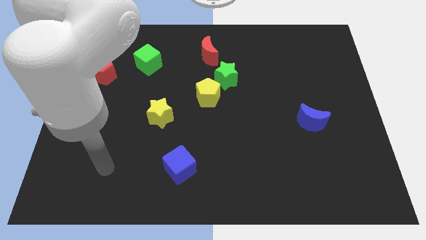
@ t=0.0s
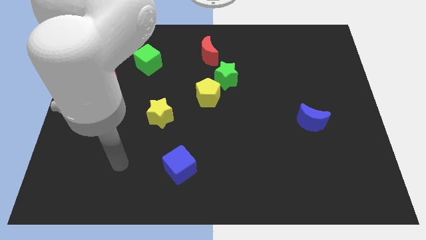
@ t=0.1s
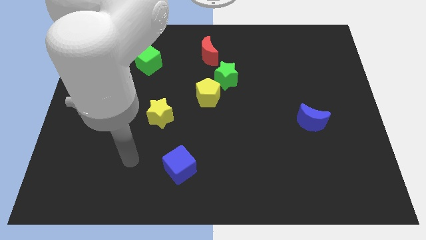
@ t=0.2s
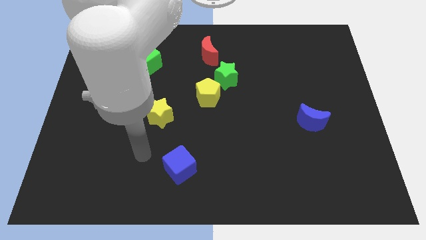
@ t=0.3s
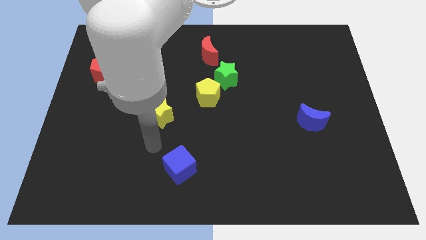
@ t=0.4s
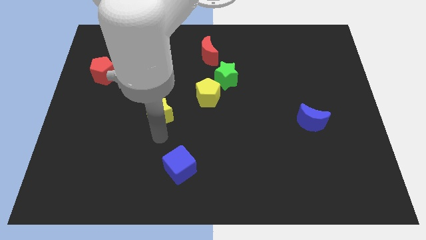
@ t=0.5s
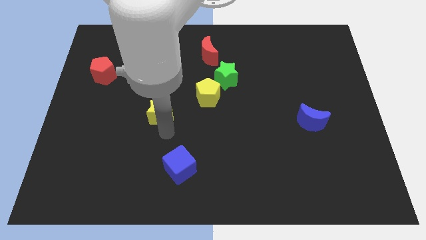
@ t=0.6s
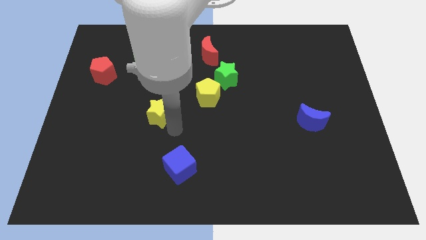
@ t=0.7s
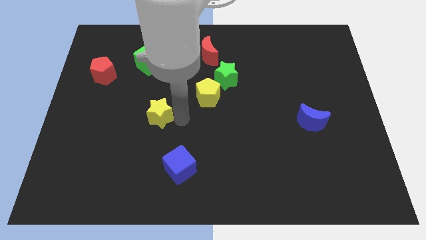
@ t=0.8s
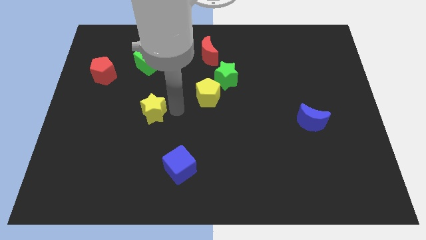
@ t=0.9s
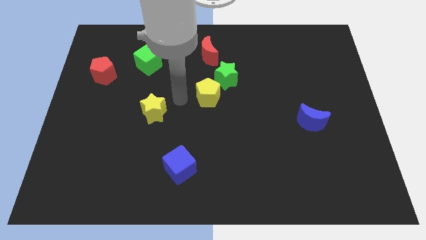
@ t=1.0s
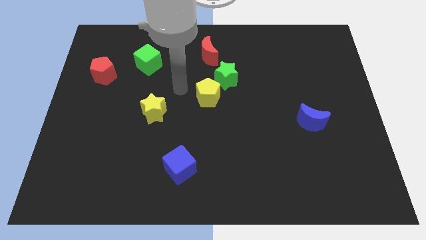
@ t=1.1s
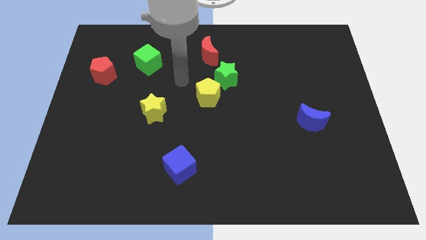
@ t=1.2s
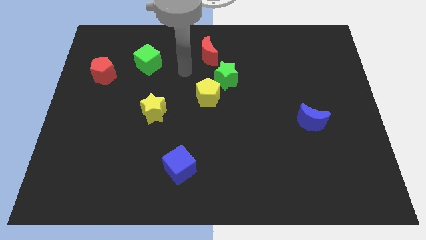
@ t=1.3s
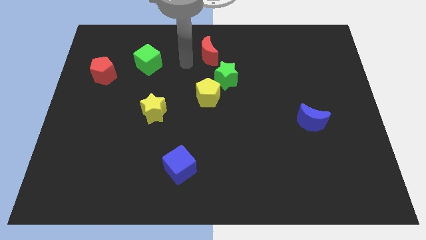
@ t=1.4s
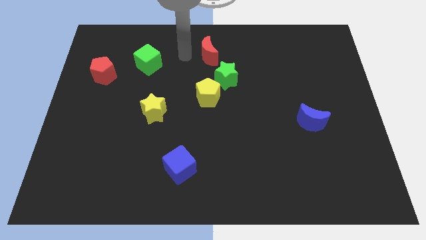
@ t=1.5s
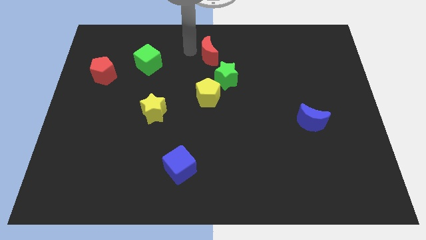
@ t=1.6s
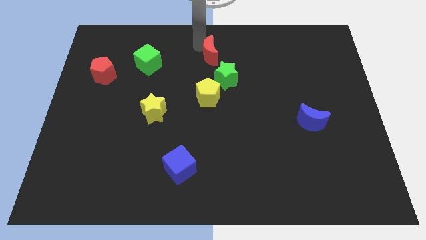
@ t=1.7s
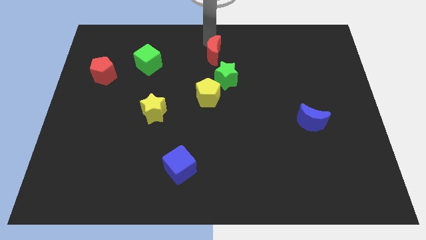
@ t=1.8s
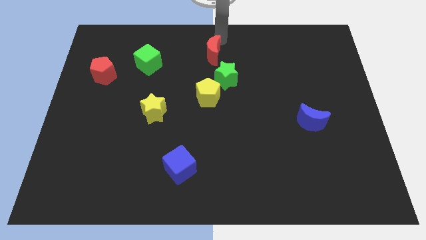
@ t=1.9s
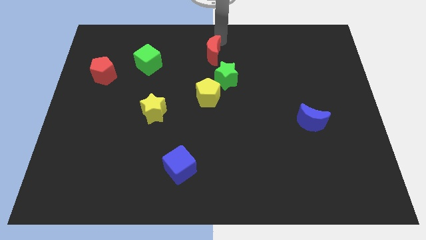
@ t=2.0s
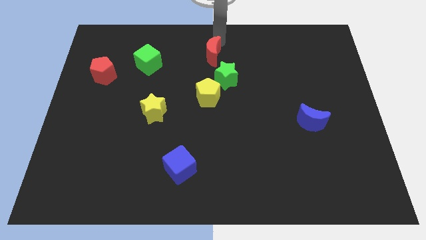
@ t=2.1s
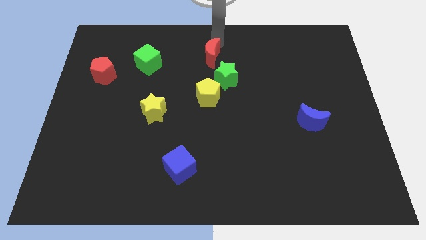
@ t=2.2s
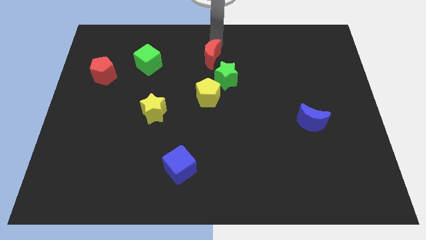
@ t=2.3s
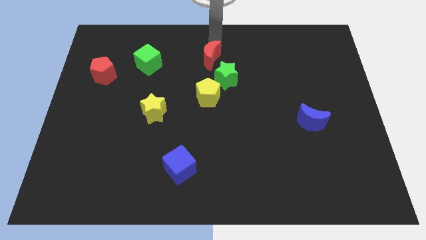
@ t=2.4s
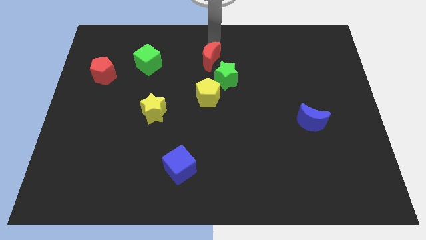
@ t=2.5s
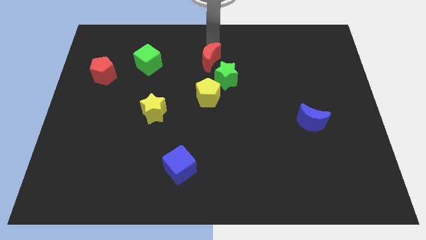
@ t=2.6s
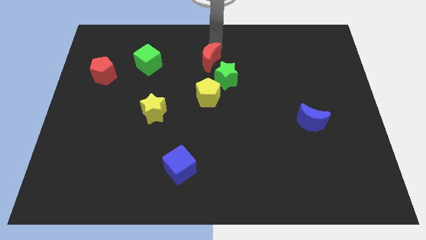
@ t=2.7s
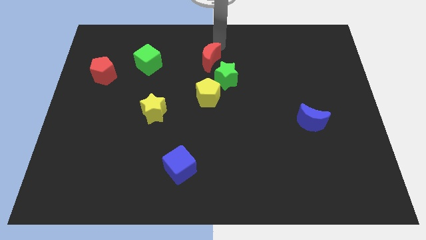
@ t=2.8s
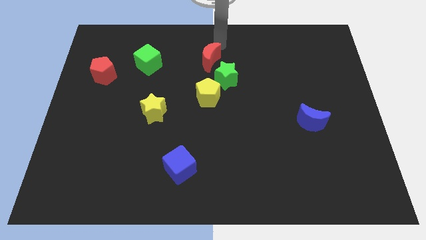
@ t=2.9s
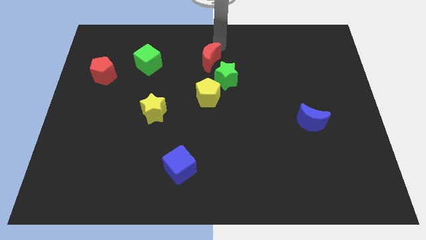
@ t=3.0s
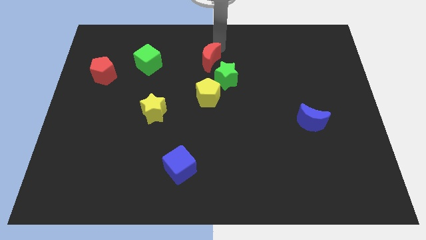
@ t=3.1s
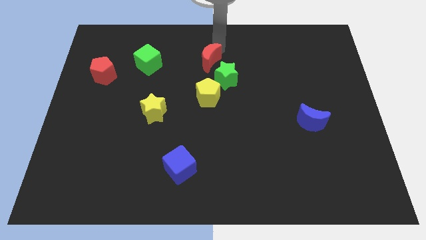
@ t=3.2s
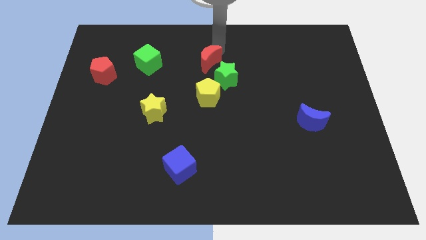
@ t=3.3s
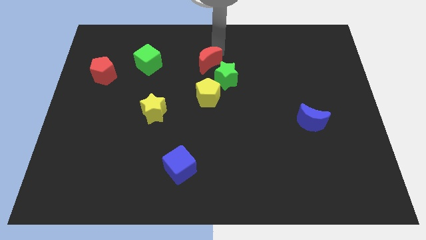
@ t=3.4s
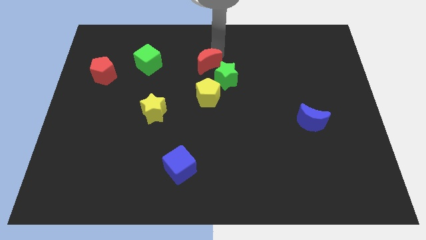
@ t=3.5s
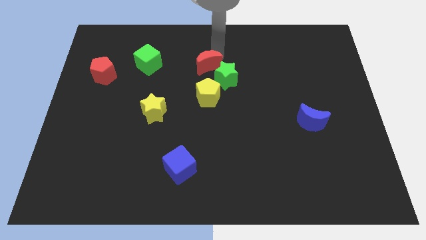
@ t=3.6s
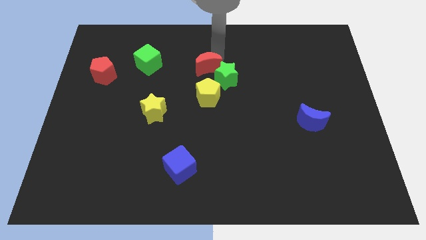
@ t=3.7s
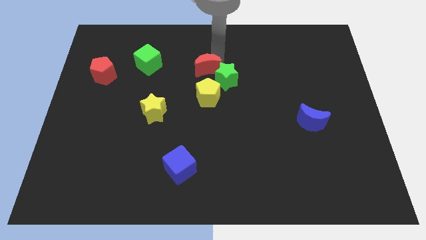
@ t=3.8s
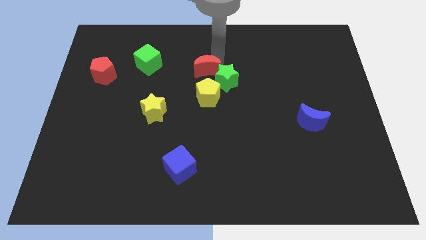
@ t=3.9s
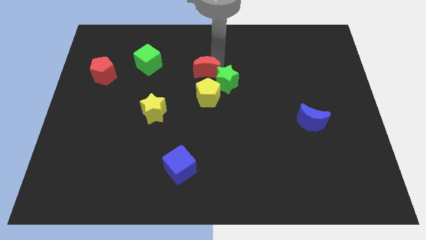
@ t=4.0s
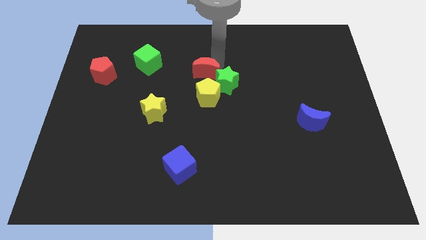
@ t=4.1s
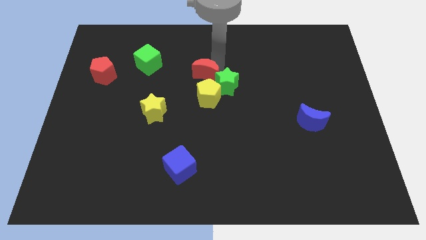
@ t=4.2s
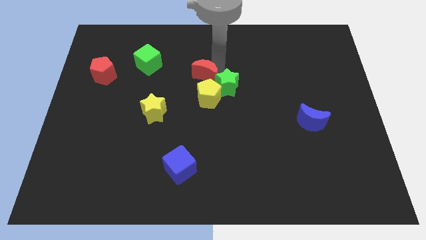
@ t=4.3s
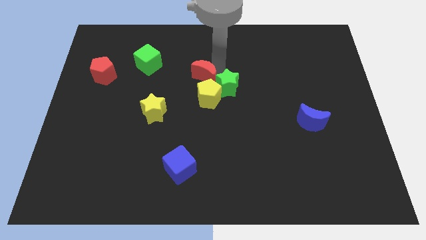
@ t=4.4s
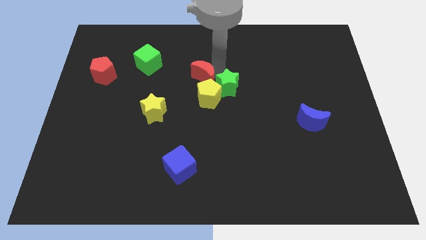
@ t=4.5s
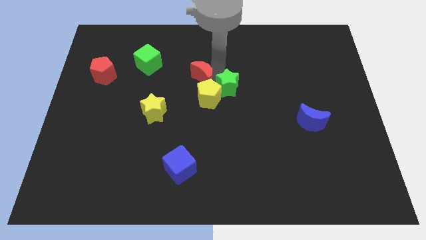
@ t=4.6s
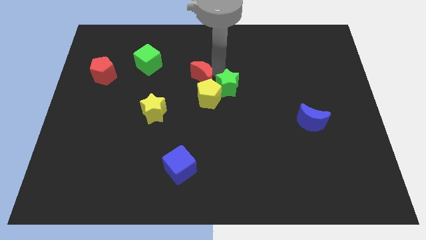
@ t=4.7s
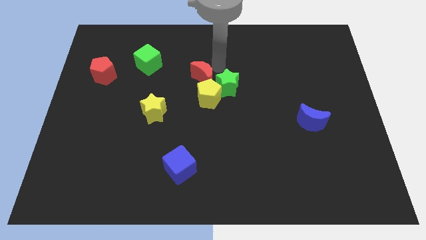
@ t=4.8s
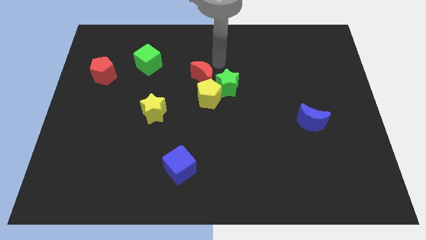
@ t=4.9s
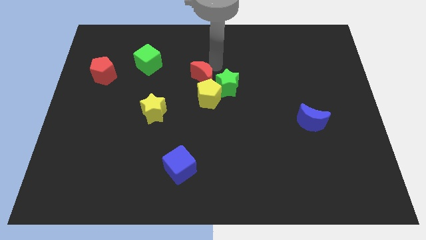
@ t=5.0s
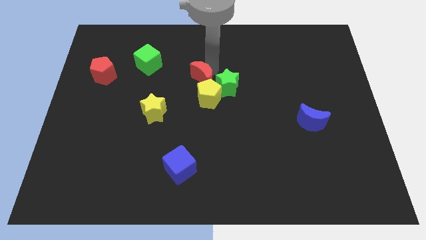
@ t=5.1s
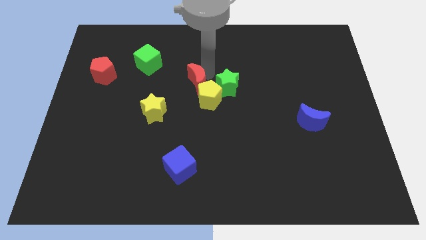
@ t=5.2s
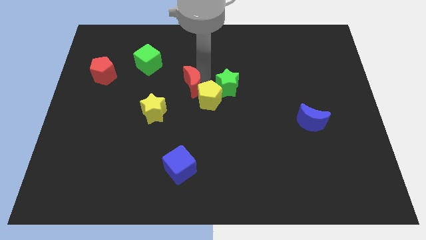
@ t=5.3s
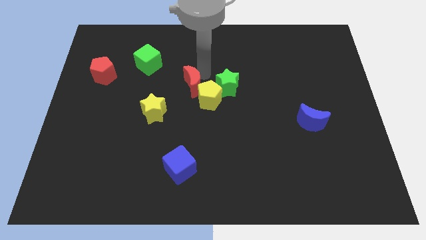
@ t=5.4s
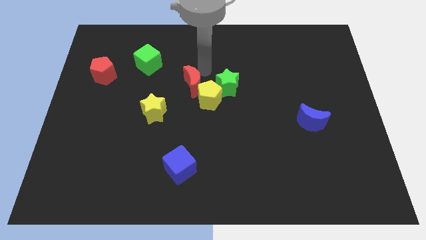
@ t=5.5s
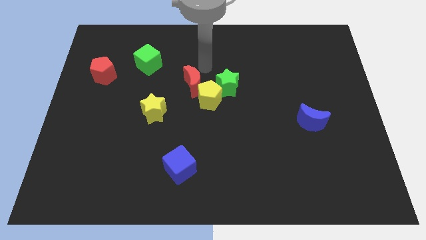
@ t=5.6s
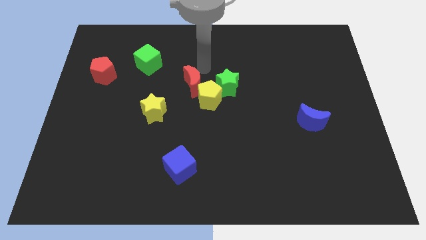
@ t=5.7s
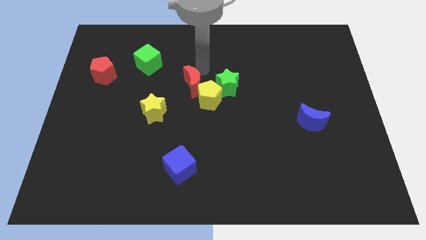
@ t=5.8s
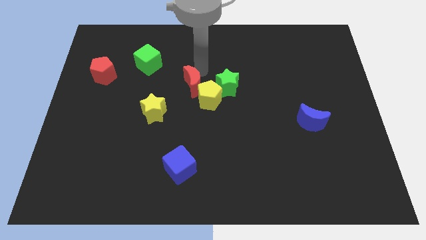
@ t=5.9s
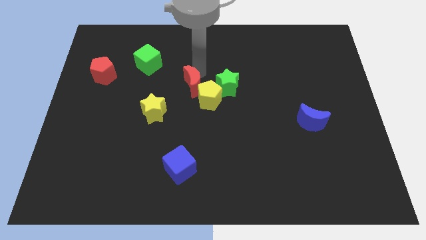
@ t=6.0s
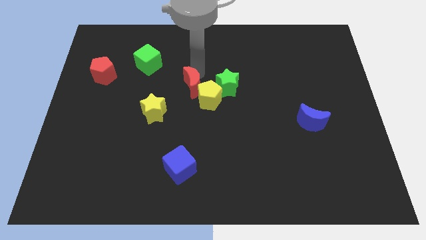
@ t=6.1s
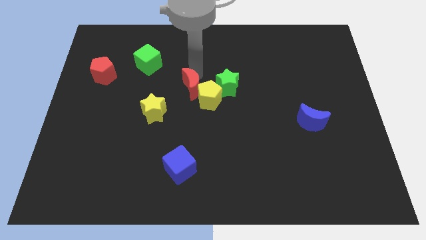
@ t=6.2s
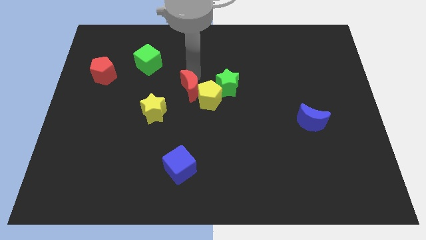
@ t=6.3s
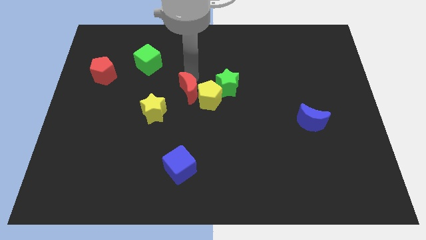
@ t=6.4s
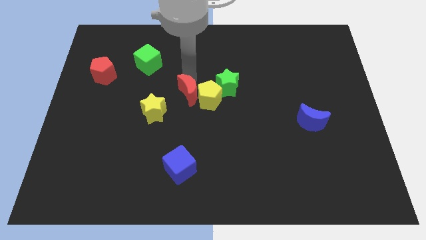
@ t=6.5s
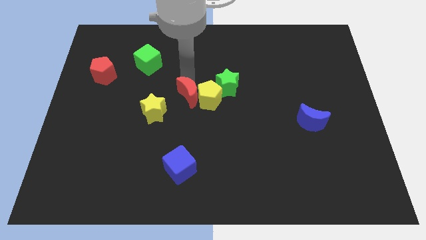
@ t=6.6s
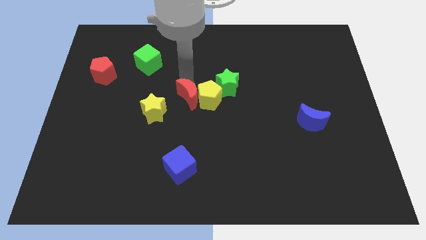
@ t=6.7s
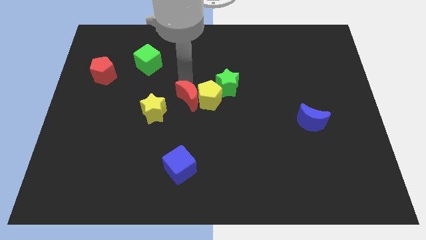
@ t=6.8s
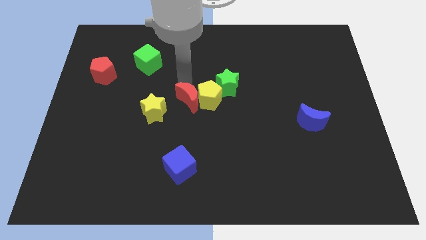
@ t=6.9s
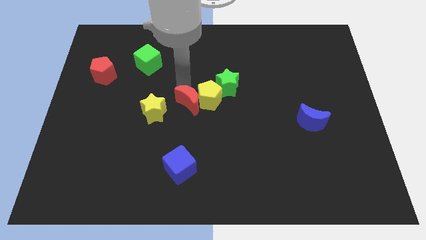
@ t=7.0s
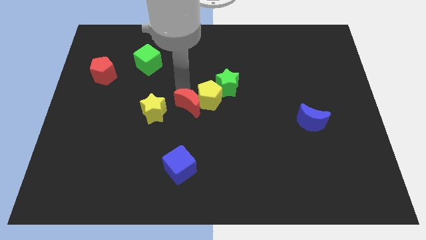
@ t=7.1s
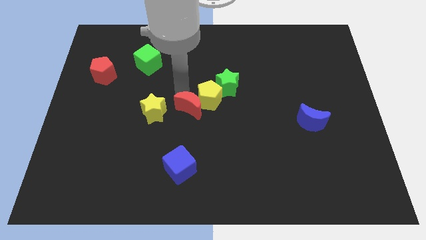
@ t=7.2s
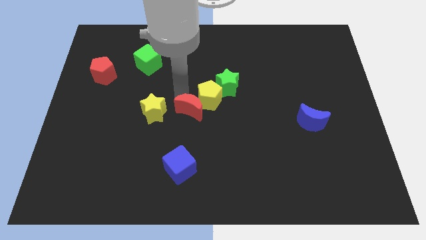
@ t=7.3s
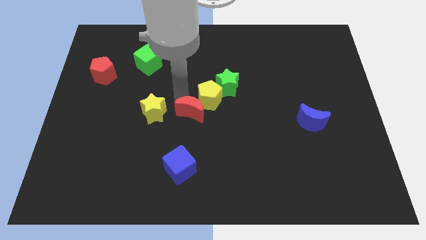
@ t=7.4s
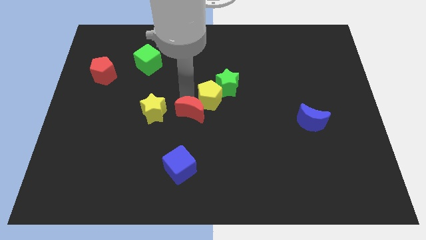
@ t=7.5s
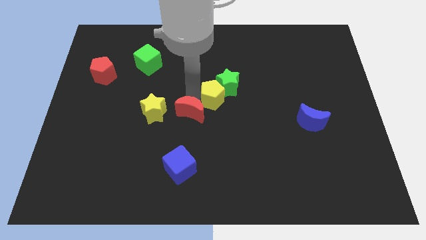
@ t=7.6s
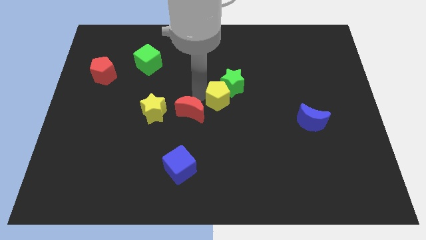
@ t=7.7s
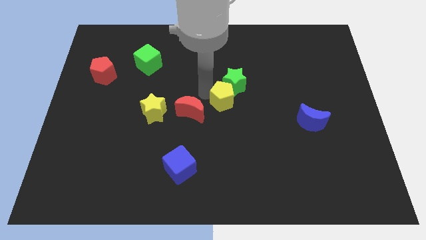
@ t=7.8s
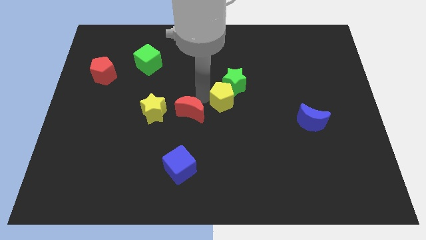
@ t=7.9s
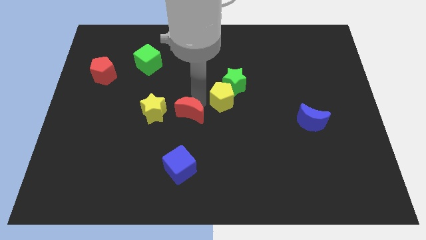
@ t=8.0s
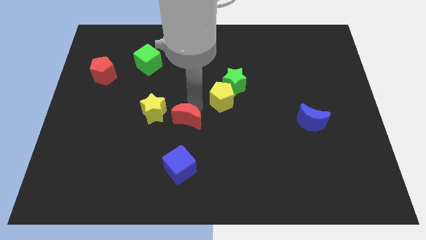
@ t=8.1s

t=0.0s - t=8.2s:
move the red moon to the bottom right of the yellow star
